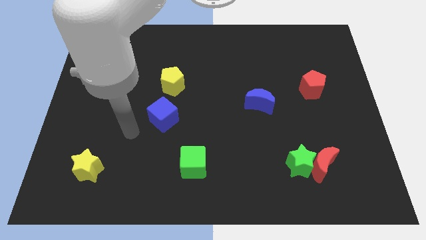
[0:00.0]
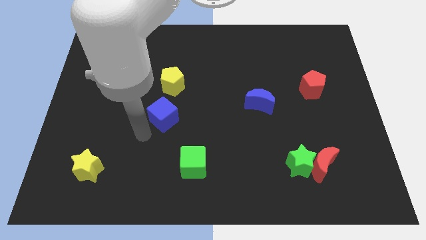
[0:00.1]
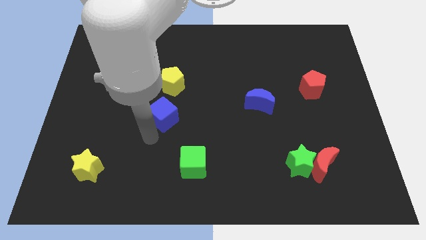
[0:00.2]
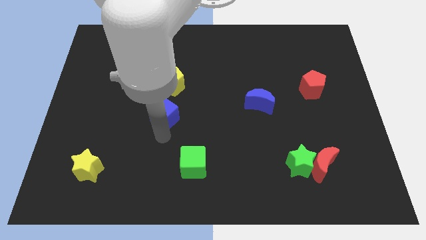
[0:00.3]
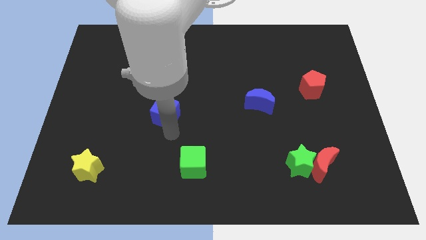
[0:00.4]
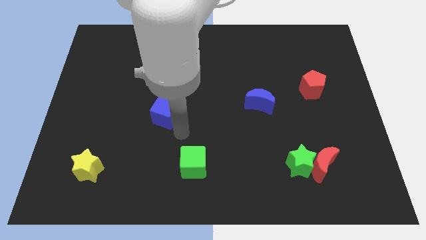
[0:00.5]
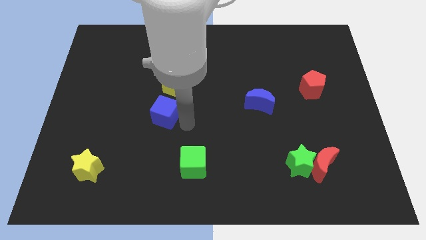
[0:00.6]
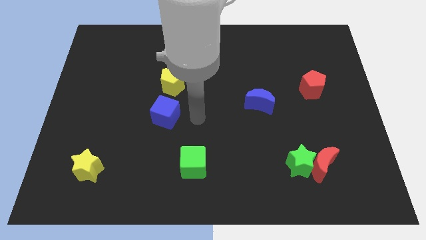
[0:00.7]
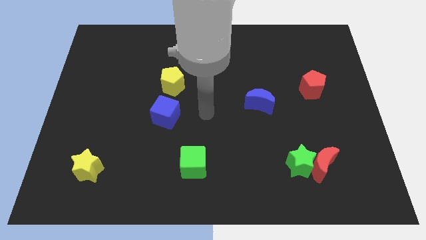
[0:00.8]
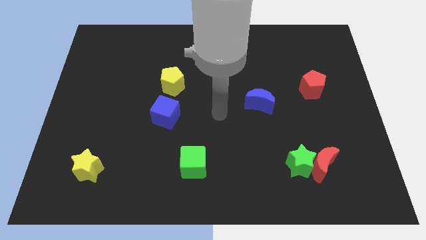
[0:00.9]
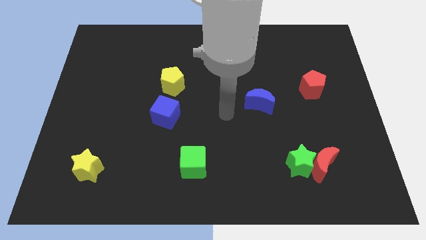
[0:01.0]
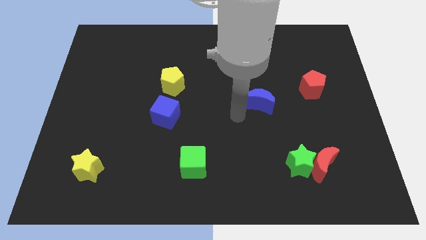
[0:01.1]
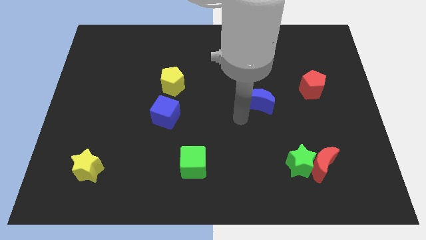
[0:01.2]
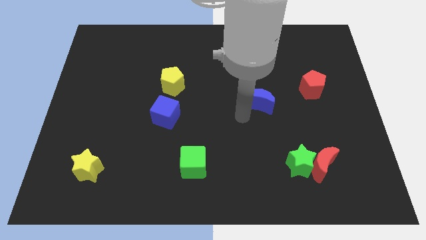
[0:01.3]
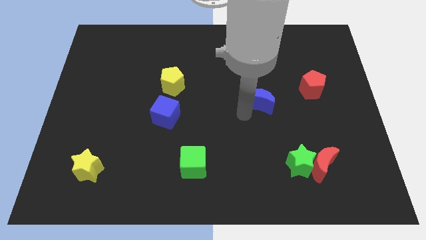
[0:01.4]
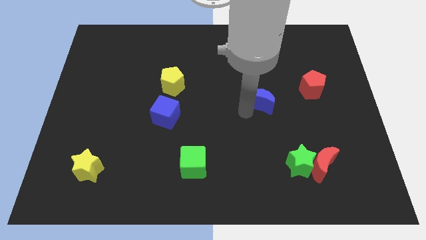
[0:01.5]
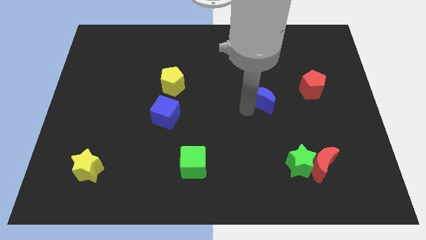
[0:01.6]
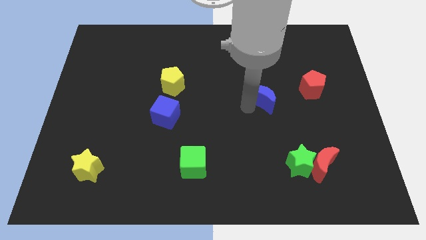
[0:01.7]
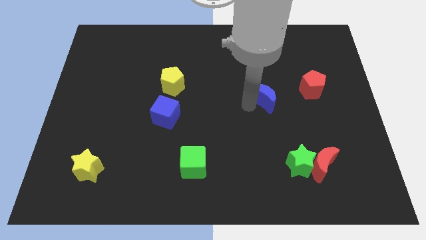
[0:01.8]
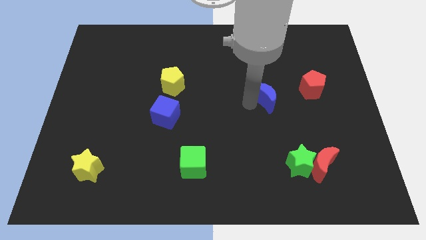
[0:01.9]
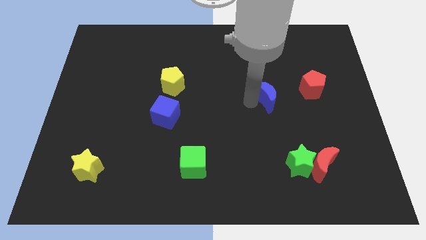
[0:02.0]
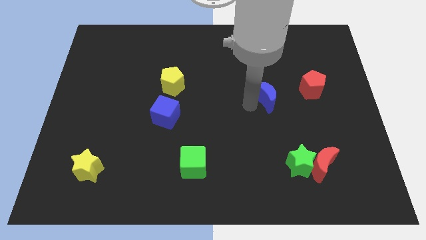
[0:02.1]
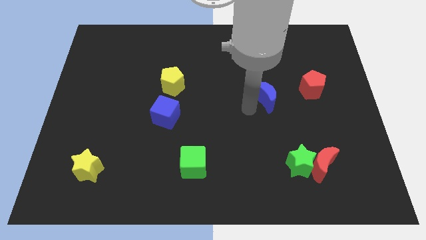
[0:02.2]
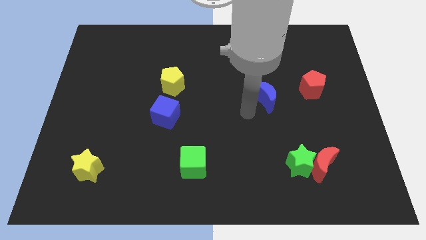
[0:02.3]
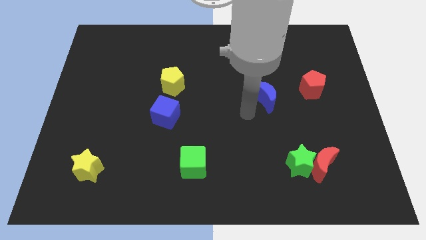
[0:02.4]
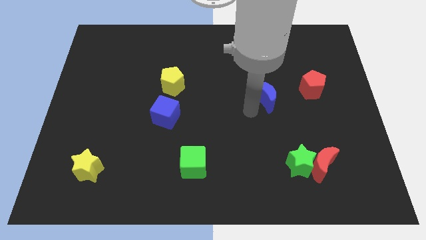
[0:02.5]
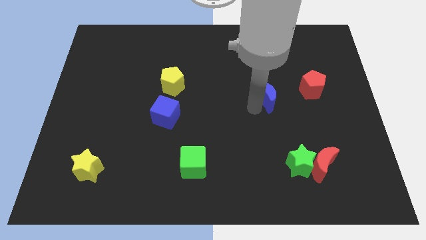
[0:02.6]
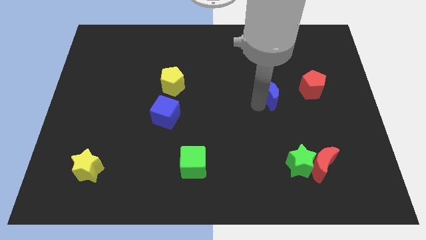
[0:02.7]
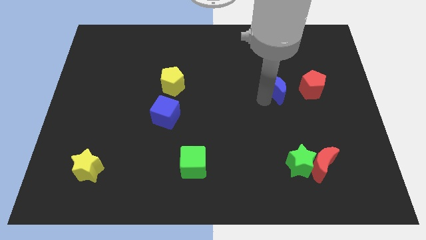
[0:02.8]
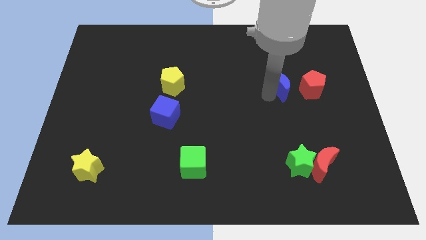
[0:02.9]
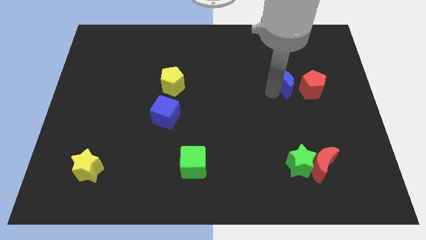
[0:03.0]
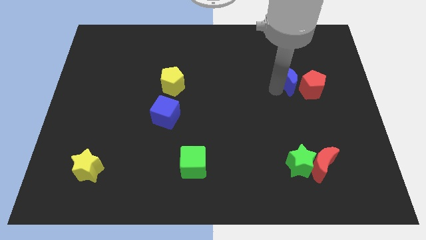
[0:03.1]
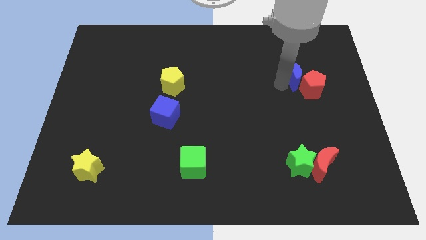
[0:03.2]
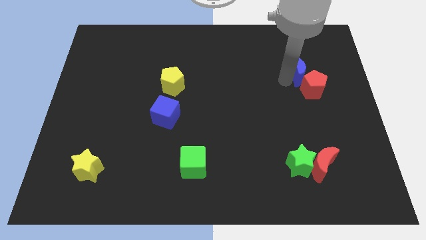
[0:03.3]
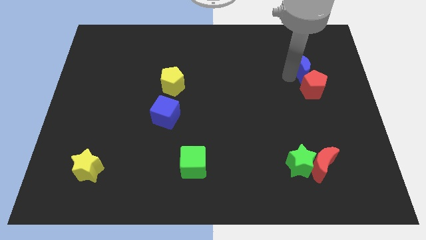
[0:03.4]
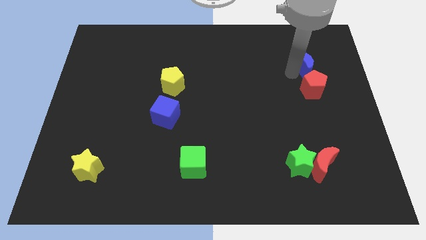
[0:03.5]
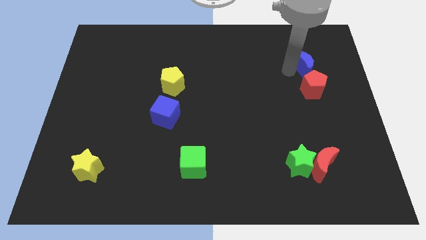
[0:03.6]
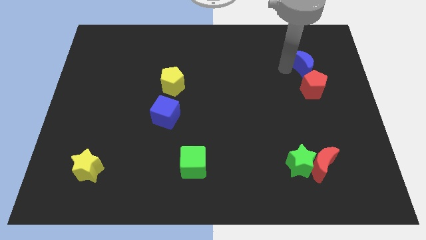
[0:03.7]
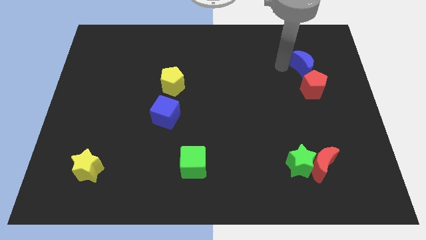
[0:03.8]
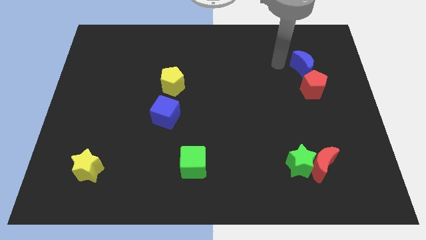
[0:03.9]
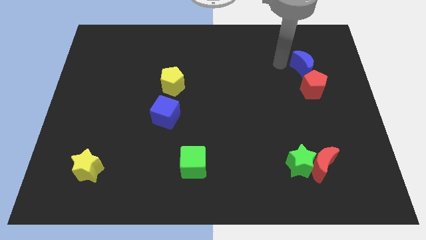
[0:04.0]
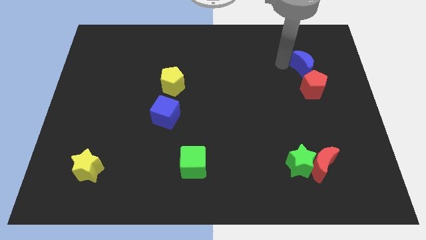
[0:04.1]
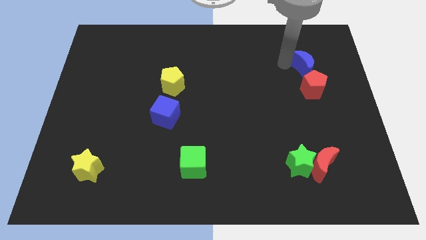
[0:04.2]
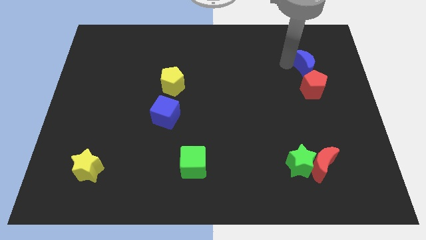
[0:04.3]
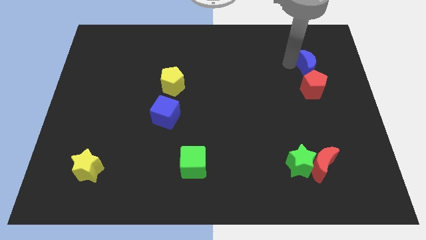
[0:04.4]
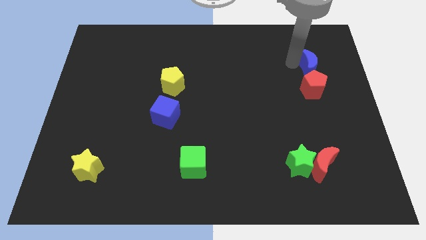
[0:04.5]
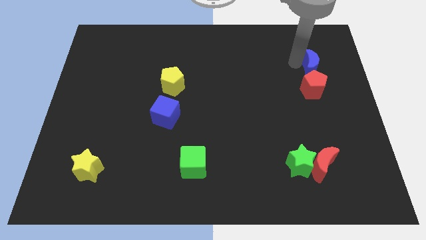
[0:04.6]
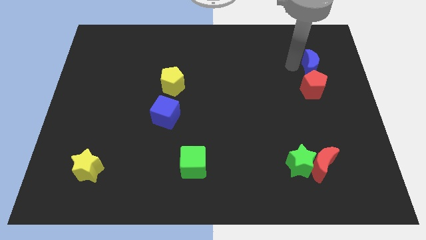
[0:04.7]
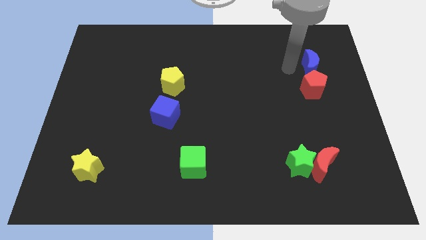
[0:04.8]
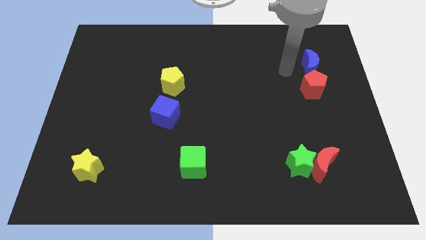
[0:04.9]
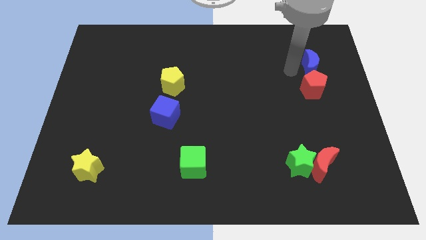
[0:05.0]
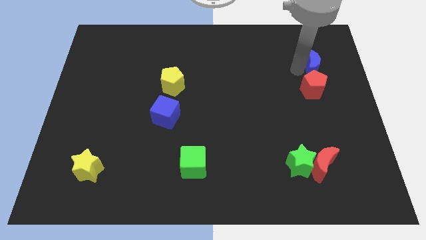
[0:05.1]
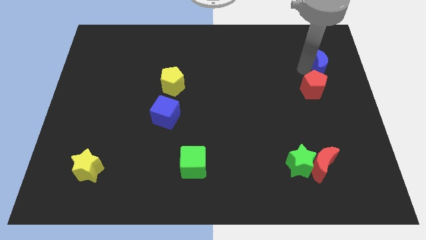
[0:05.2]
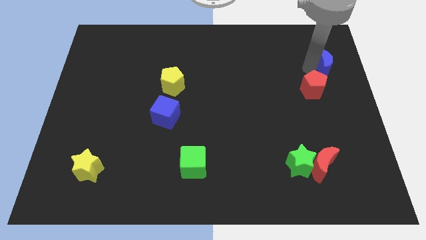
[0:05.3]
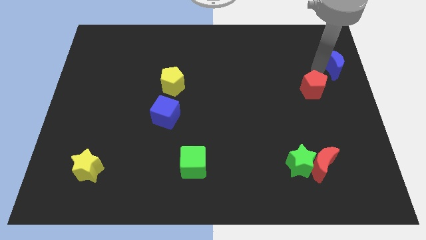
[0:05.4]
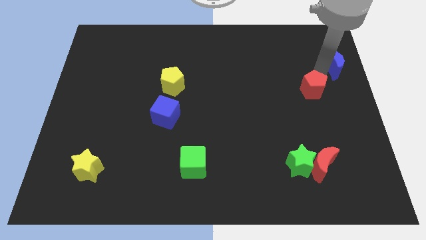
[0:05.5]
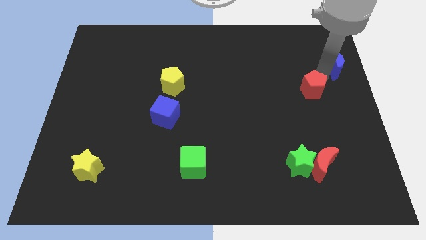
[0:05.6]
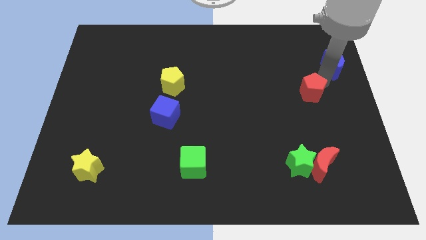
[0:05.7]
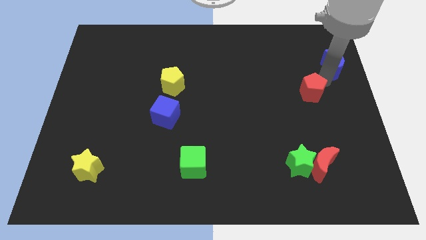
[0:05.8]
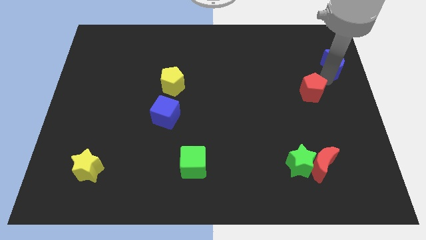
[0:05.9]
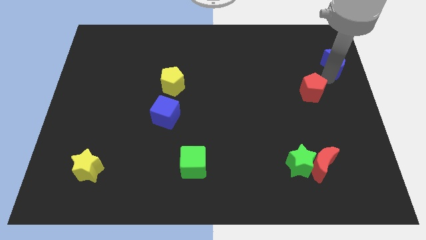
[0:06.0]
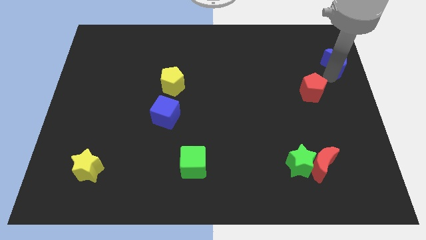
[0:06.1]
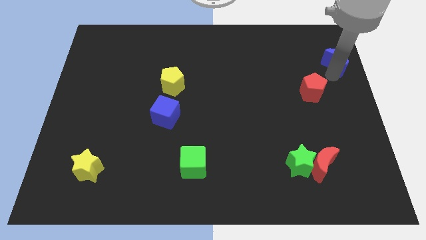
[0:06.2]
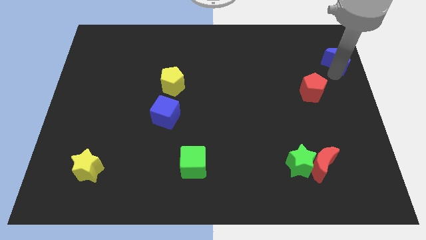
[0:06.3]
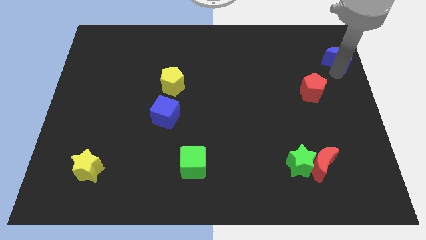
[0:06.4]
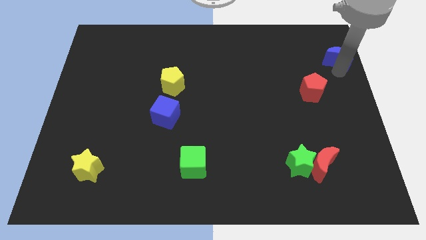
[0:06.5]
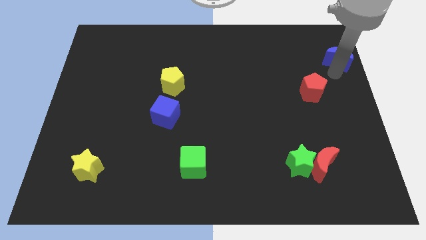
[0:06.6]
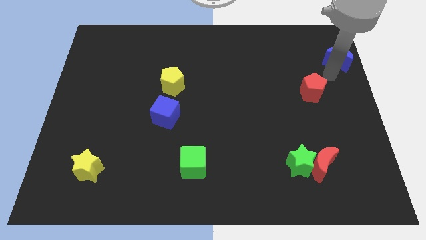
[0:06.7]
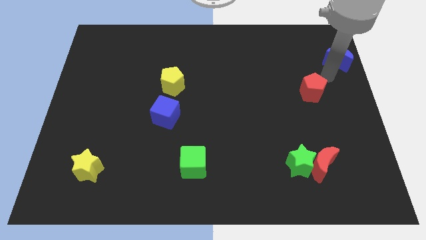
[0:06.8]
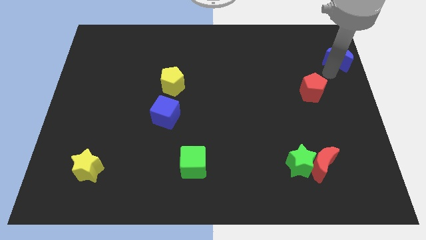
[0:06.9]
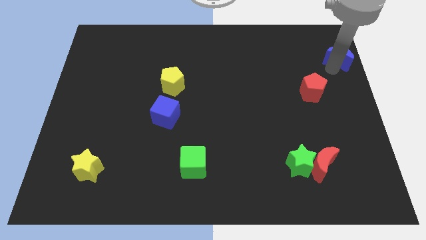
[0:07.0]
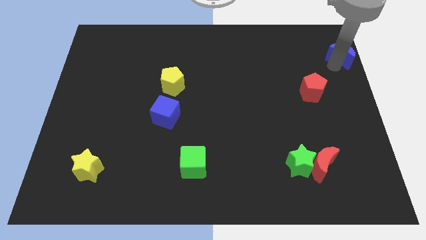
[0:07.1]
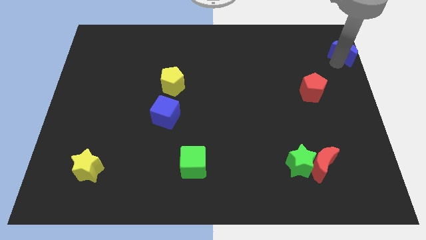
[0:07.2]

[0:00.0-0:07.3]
put the blue moon to the top right corner
